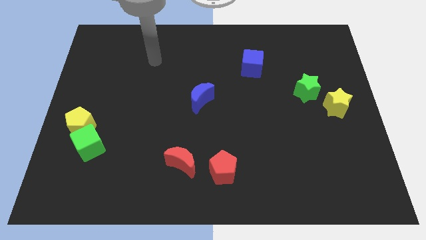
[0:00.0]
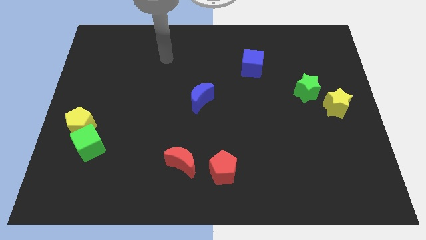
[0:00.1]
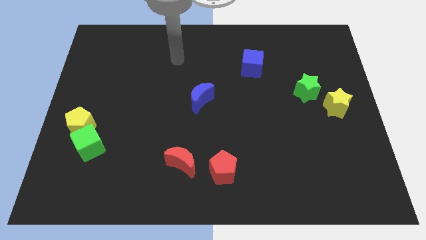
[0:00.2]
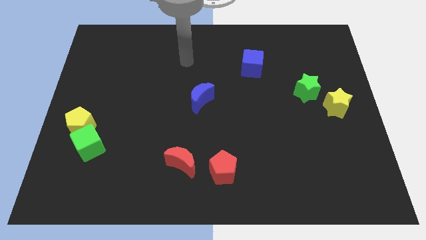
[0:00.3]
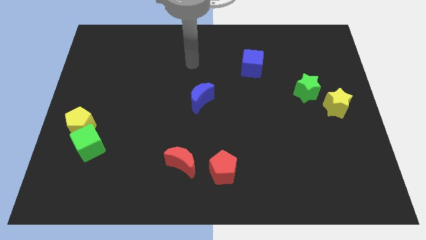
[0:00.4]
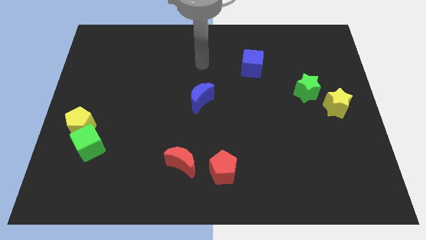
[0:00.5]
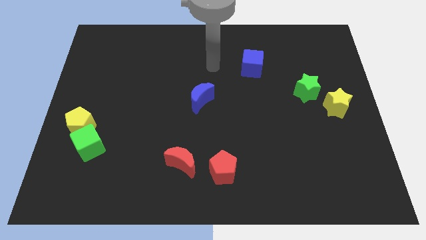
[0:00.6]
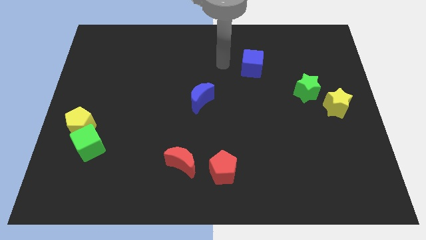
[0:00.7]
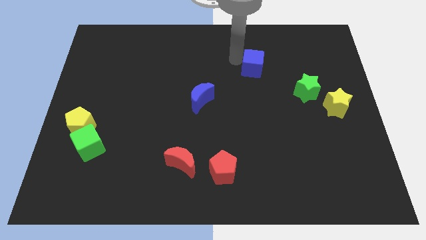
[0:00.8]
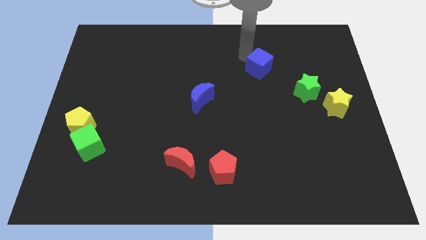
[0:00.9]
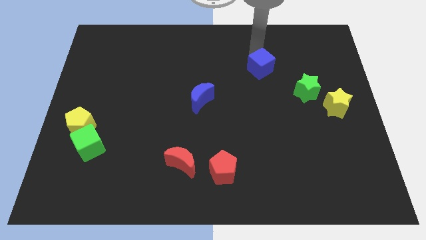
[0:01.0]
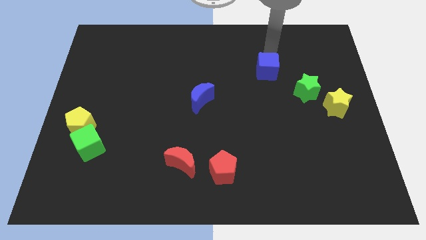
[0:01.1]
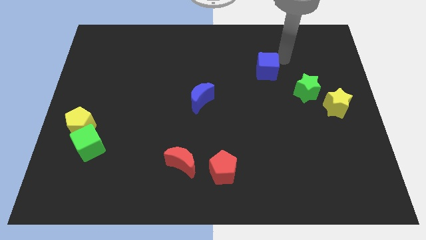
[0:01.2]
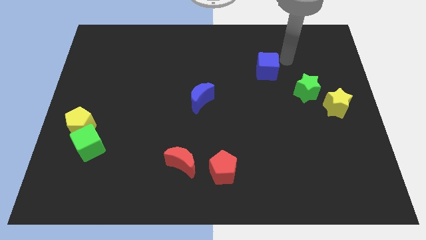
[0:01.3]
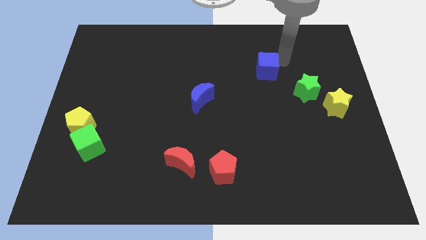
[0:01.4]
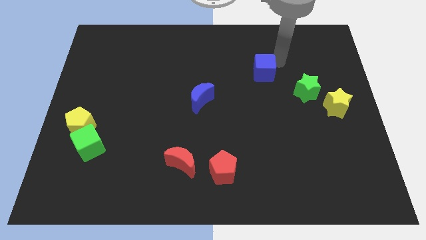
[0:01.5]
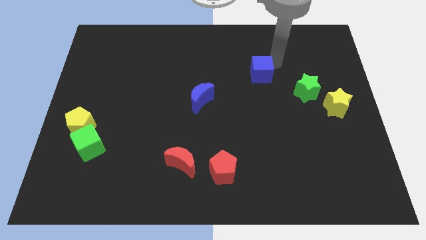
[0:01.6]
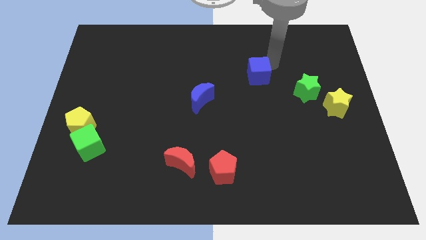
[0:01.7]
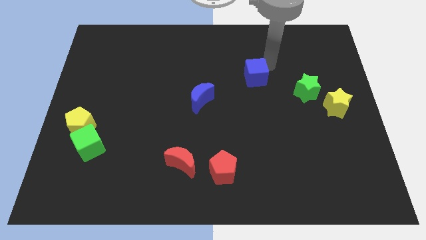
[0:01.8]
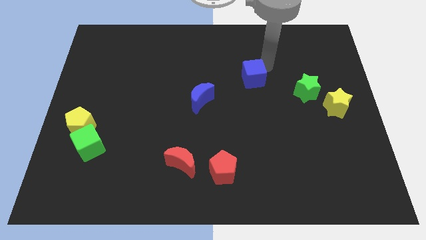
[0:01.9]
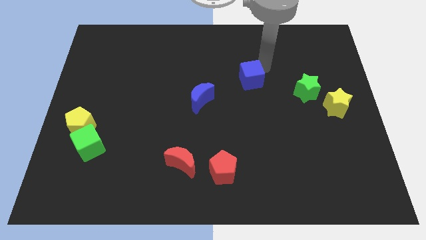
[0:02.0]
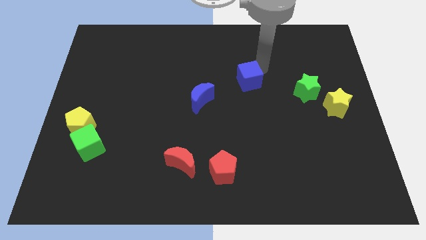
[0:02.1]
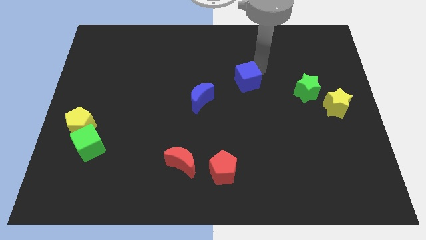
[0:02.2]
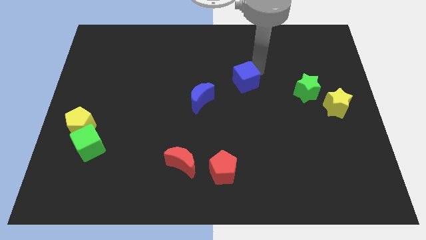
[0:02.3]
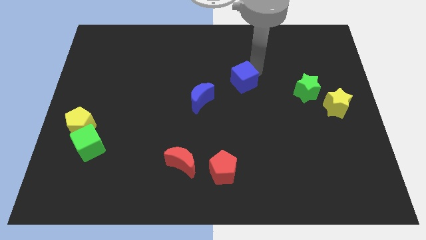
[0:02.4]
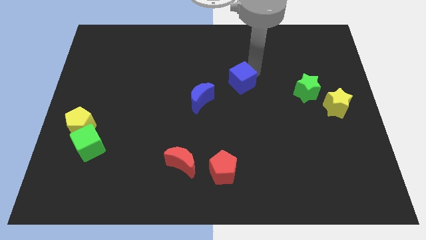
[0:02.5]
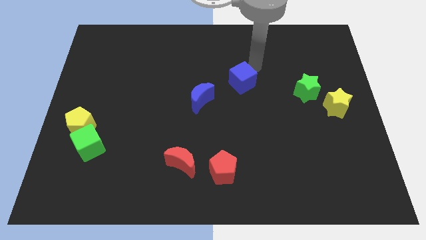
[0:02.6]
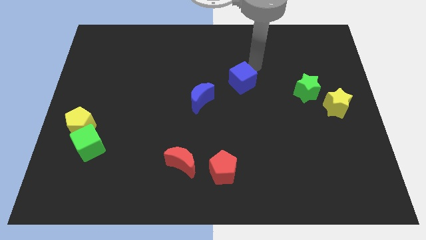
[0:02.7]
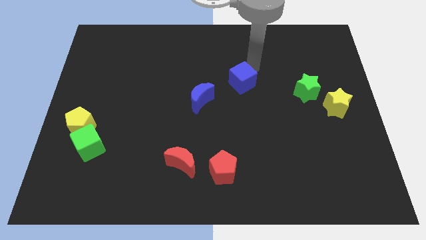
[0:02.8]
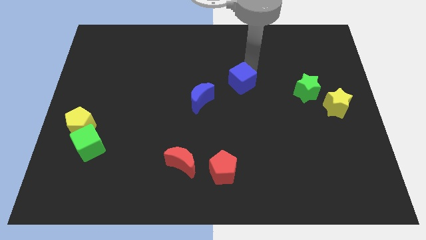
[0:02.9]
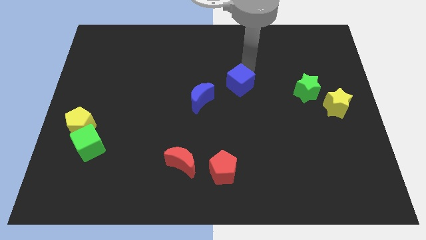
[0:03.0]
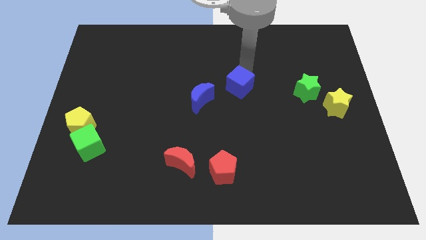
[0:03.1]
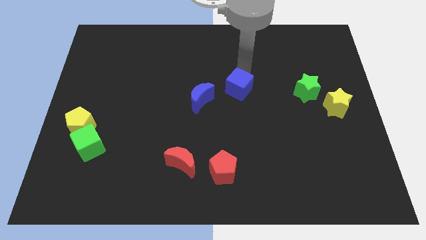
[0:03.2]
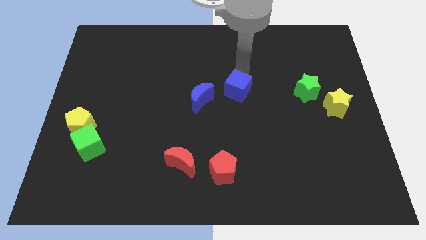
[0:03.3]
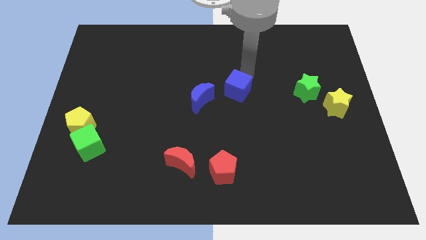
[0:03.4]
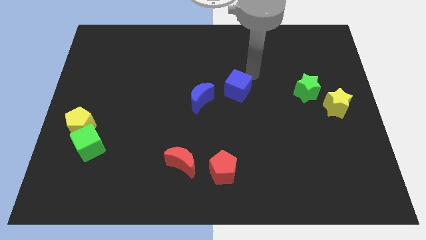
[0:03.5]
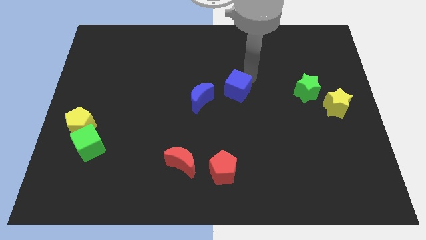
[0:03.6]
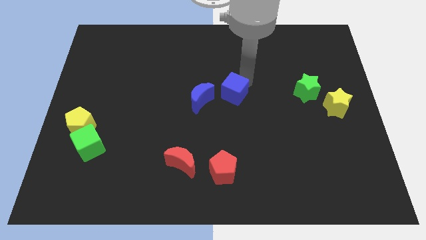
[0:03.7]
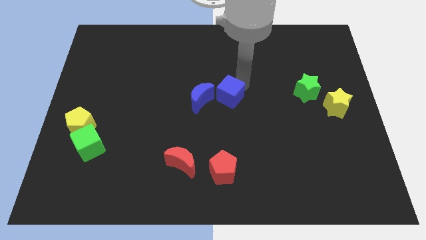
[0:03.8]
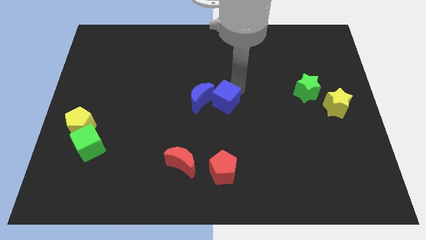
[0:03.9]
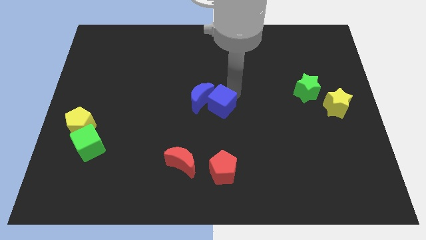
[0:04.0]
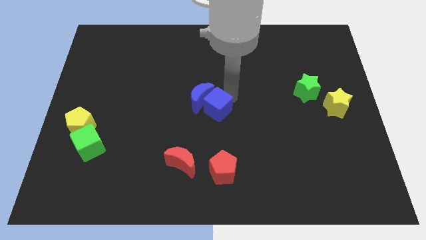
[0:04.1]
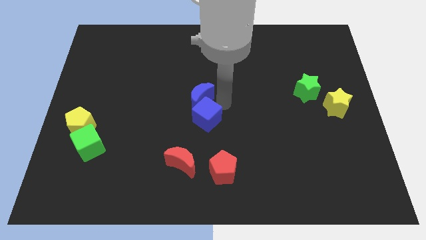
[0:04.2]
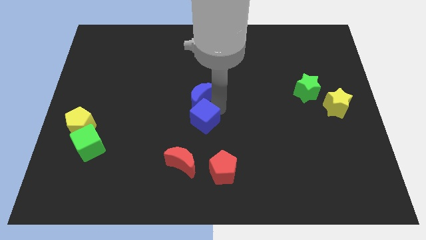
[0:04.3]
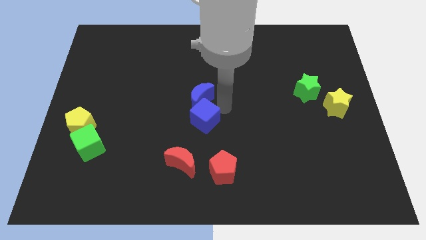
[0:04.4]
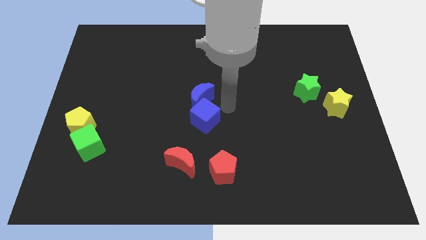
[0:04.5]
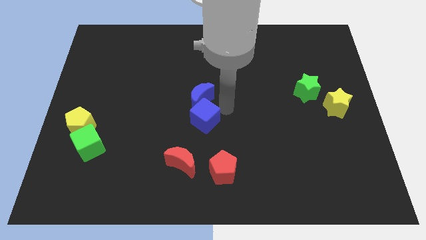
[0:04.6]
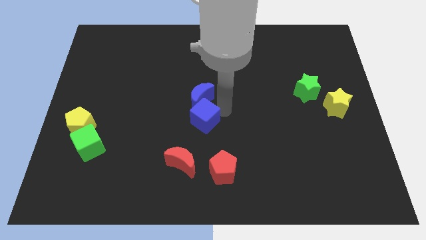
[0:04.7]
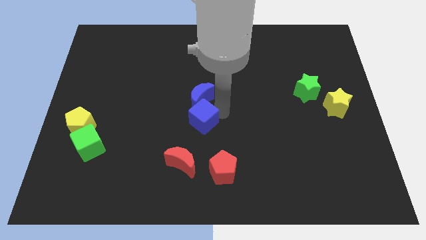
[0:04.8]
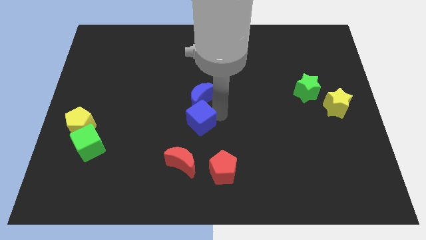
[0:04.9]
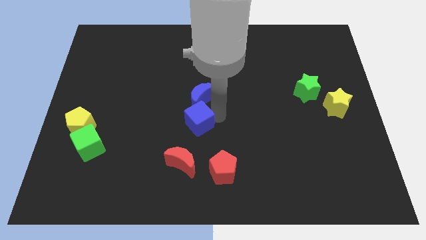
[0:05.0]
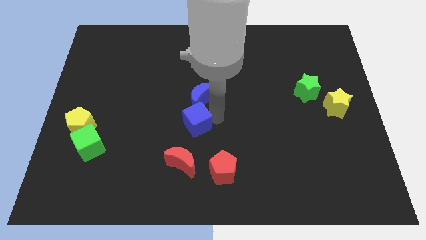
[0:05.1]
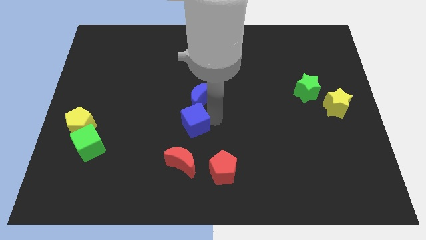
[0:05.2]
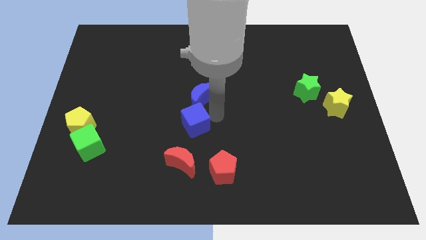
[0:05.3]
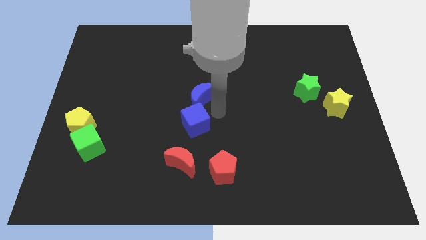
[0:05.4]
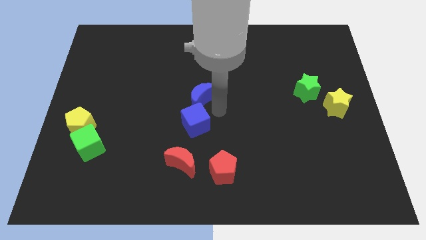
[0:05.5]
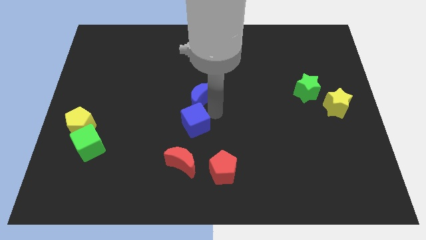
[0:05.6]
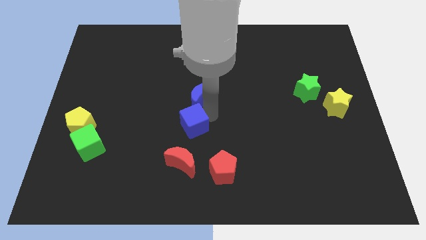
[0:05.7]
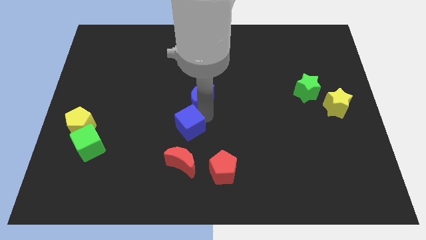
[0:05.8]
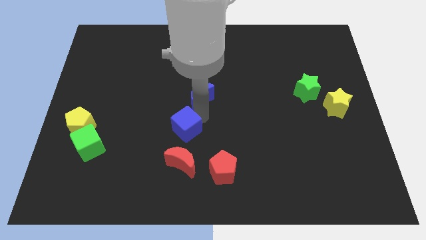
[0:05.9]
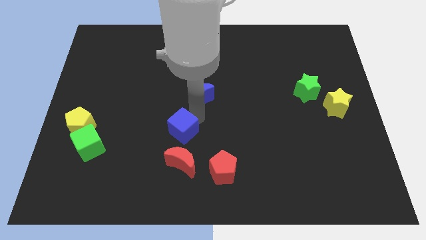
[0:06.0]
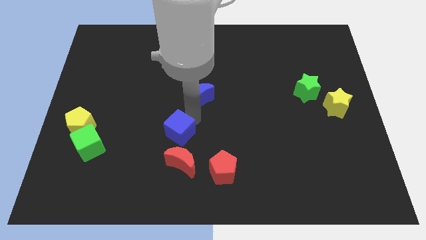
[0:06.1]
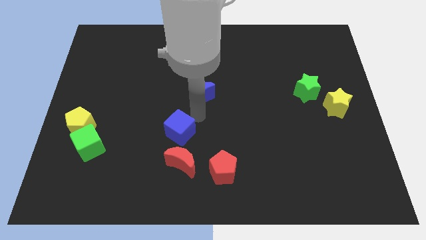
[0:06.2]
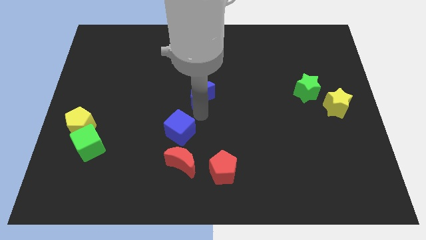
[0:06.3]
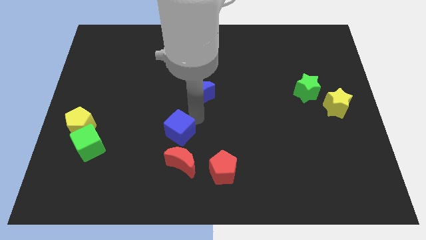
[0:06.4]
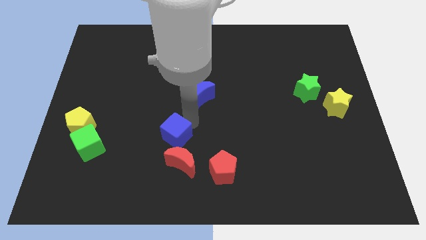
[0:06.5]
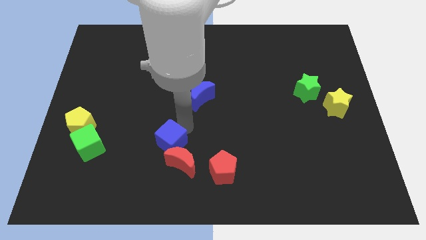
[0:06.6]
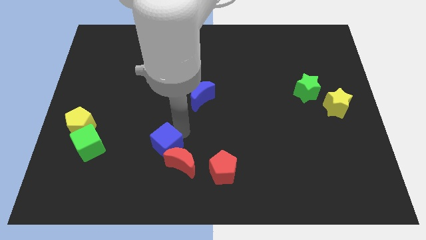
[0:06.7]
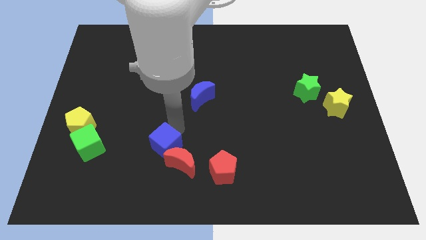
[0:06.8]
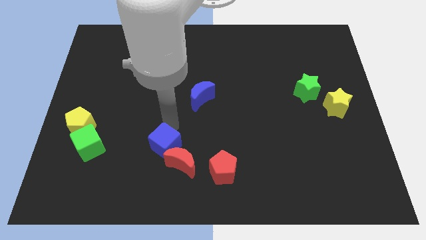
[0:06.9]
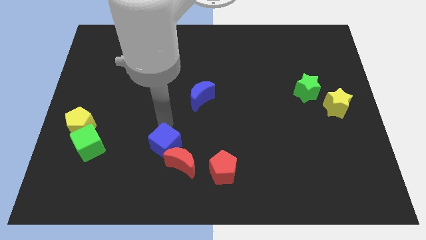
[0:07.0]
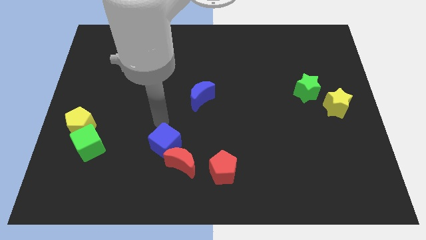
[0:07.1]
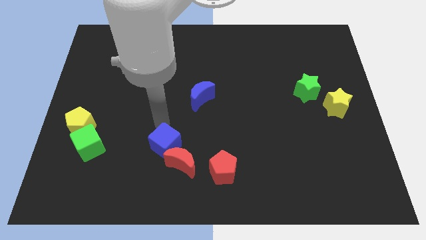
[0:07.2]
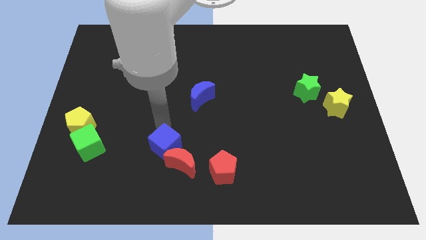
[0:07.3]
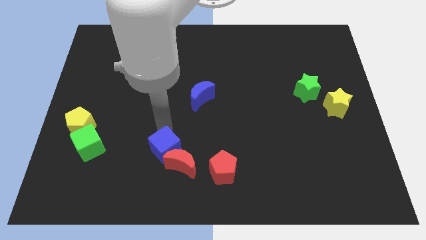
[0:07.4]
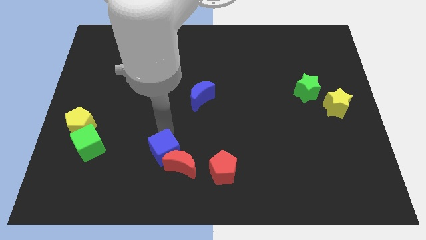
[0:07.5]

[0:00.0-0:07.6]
slide the blue cube just left of the red pentagon

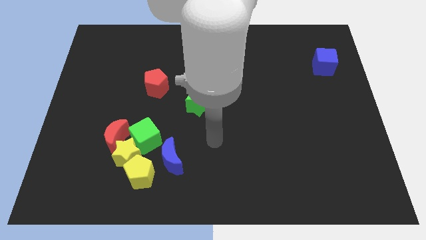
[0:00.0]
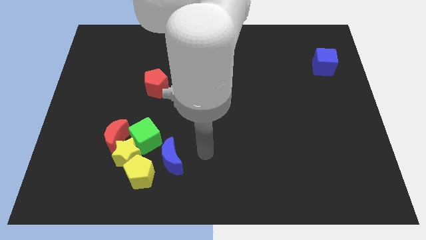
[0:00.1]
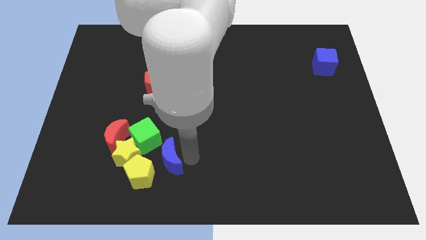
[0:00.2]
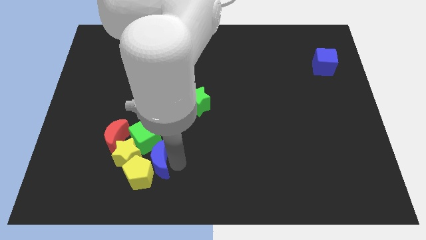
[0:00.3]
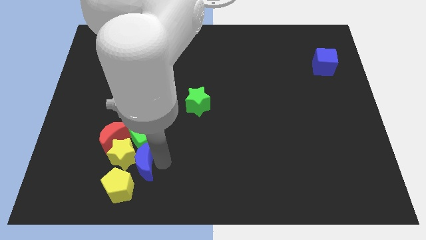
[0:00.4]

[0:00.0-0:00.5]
put the yellow star to the left side of the green cube
